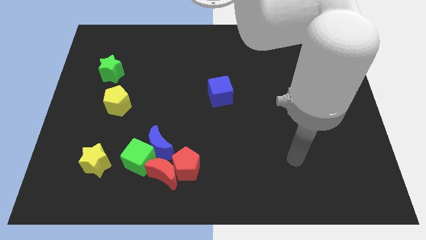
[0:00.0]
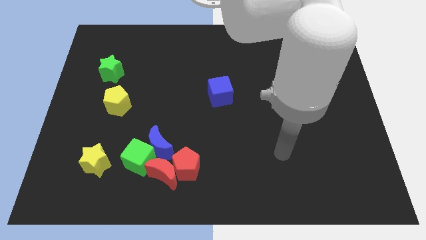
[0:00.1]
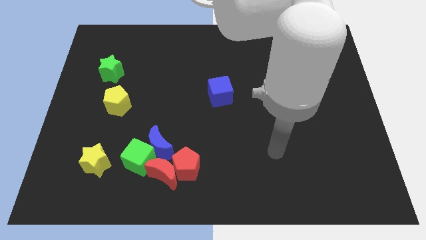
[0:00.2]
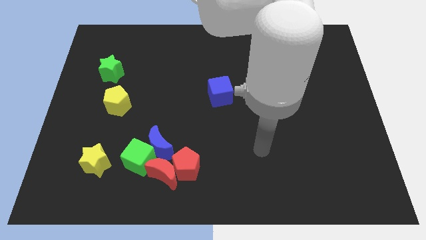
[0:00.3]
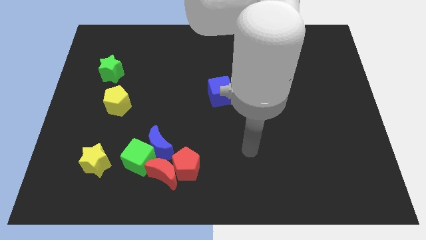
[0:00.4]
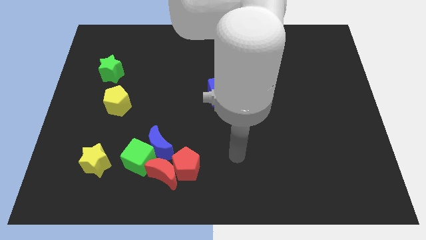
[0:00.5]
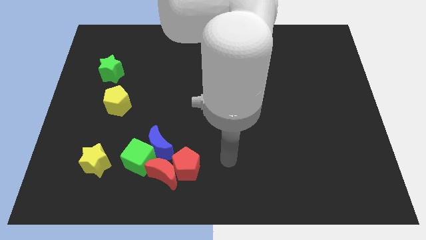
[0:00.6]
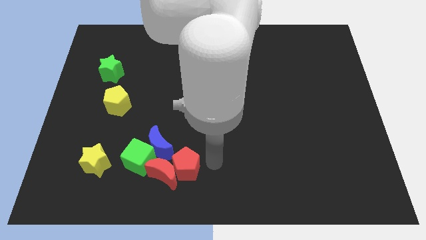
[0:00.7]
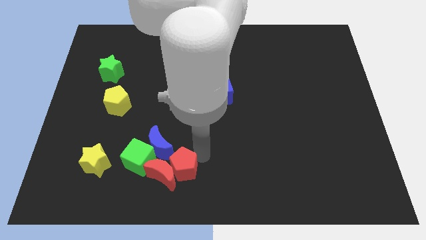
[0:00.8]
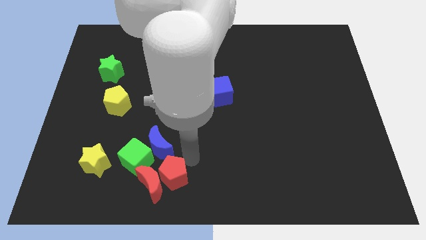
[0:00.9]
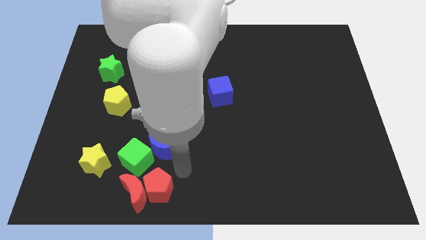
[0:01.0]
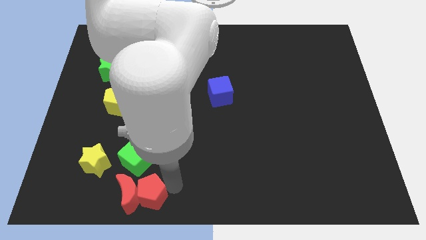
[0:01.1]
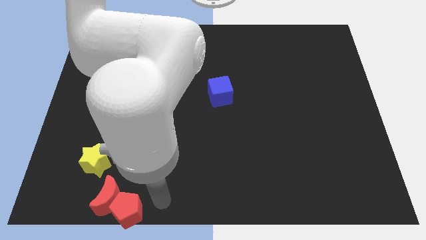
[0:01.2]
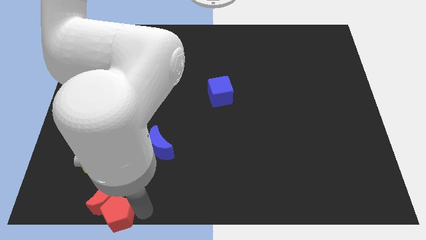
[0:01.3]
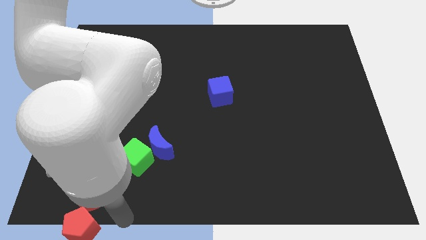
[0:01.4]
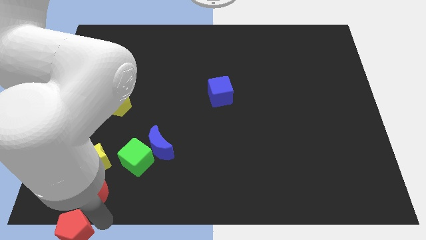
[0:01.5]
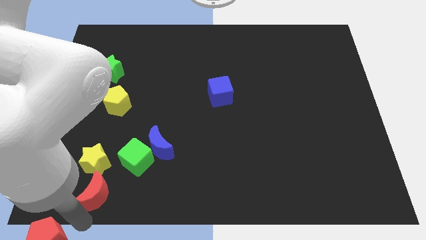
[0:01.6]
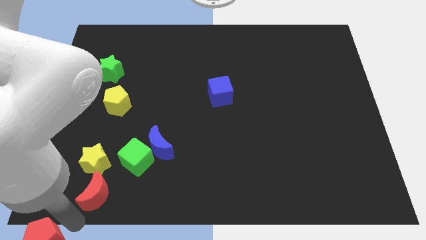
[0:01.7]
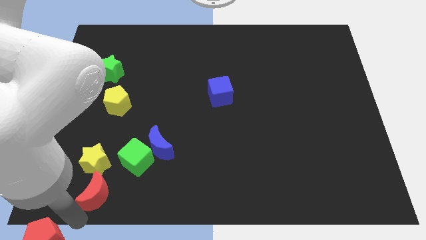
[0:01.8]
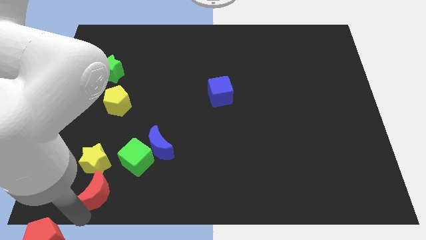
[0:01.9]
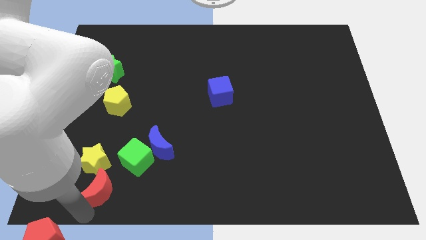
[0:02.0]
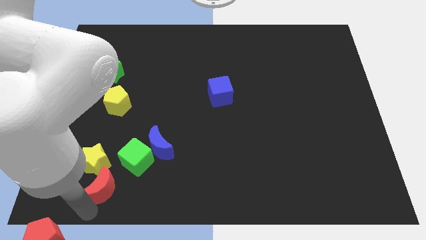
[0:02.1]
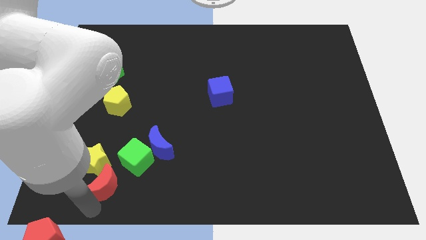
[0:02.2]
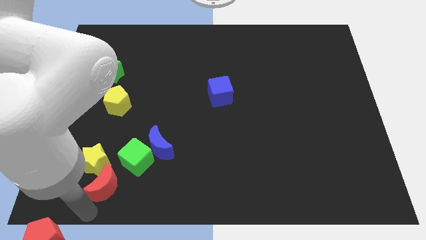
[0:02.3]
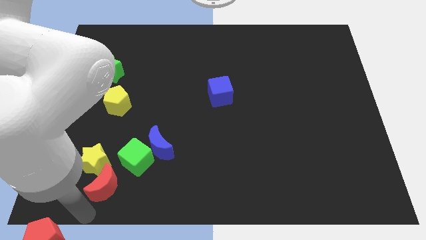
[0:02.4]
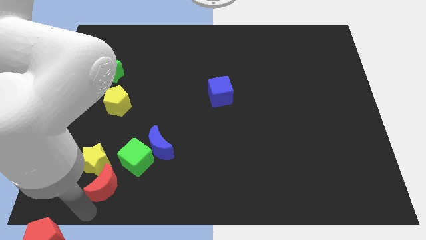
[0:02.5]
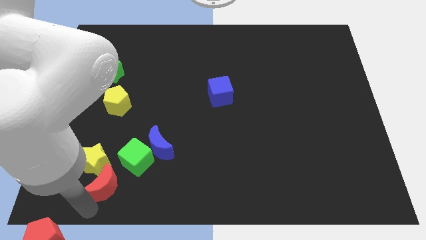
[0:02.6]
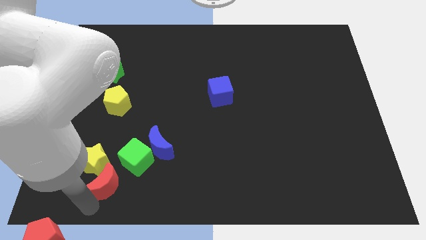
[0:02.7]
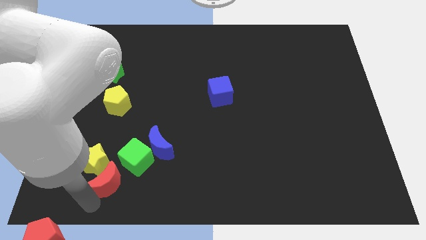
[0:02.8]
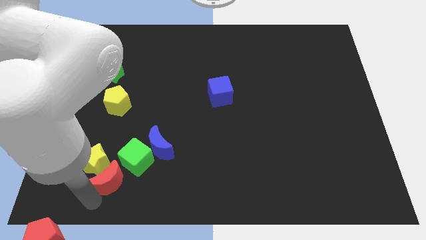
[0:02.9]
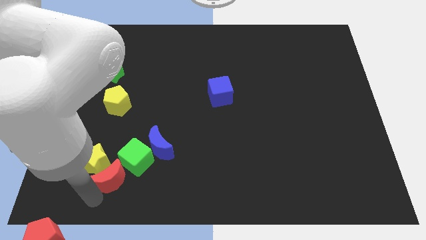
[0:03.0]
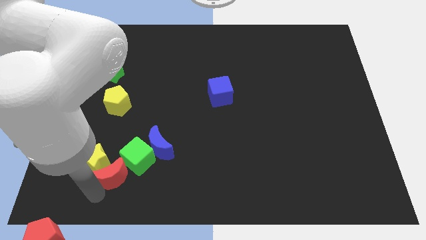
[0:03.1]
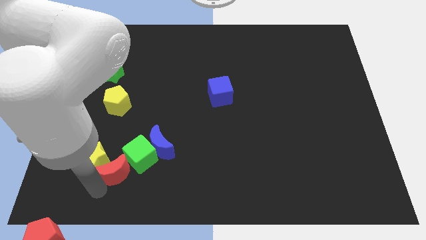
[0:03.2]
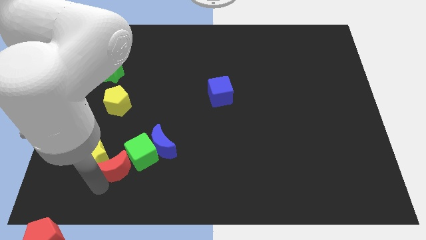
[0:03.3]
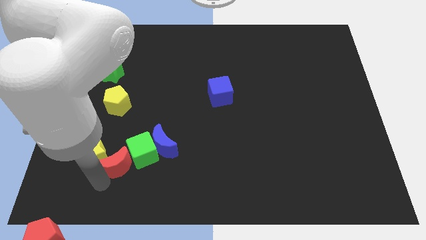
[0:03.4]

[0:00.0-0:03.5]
slightly push the red moon up and to the left

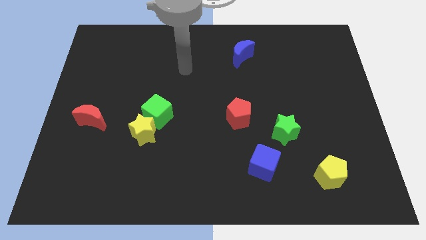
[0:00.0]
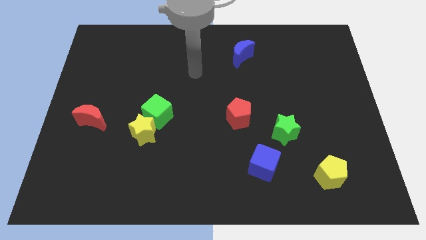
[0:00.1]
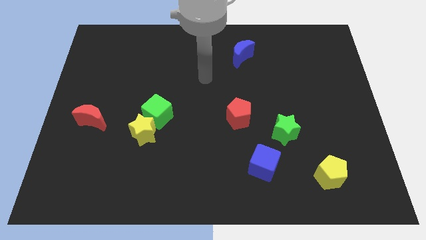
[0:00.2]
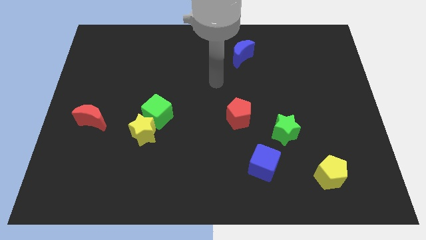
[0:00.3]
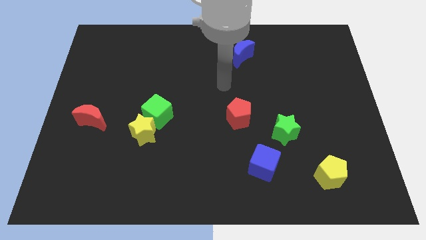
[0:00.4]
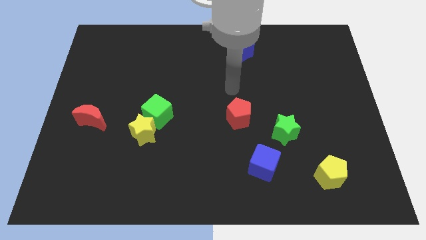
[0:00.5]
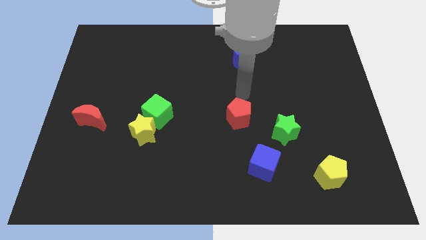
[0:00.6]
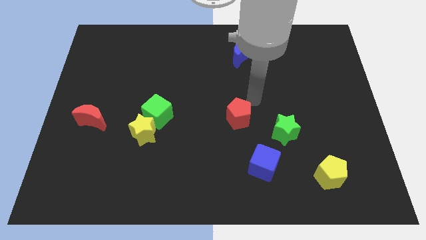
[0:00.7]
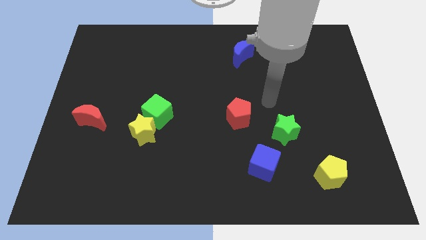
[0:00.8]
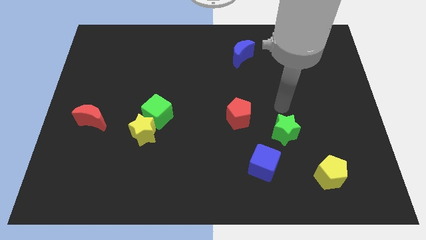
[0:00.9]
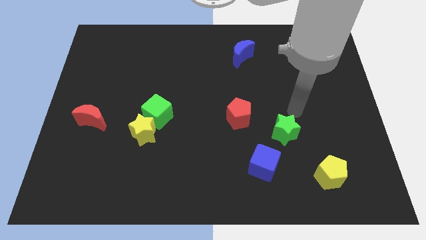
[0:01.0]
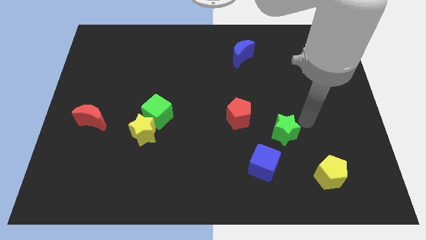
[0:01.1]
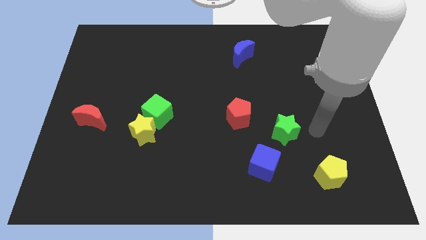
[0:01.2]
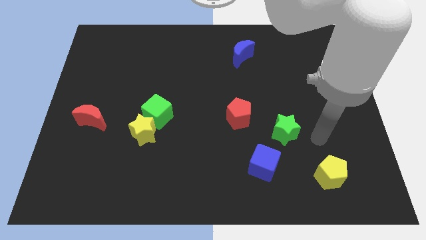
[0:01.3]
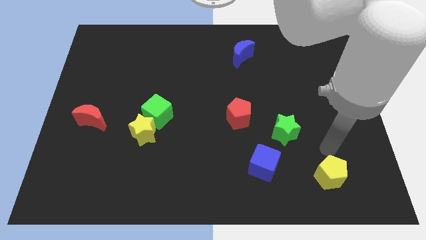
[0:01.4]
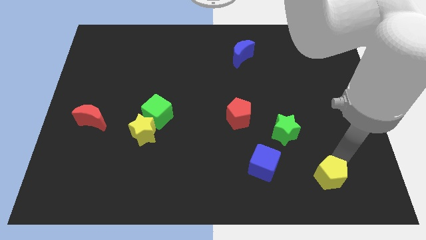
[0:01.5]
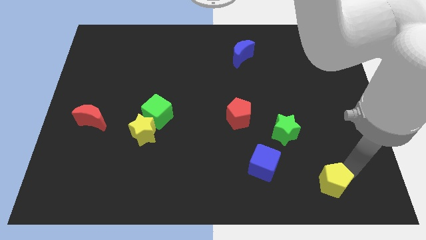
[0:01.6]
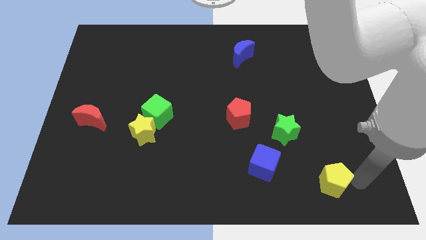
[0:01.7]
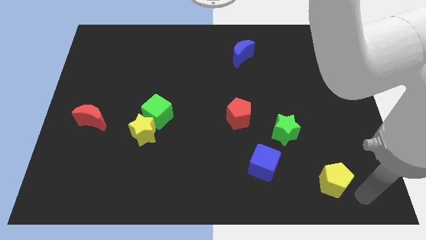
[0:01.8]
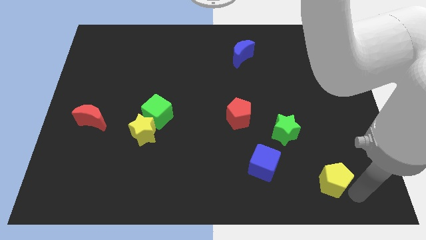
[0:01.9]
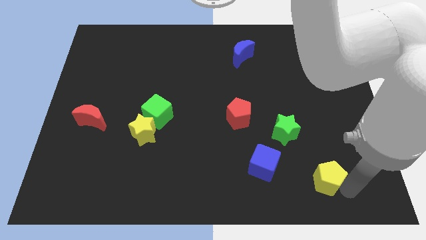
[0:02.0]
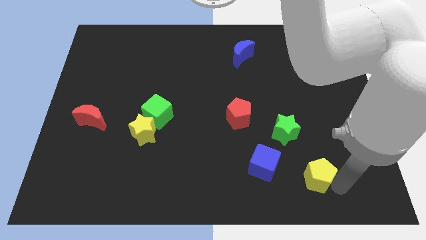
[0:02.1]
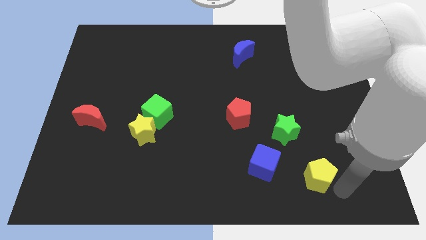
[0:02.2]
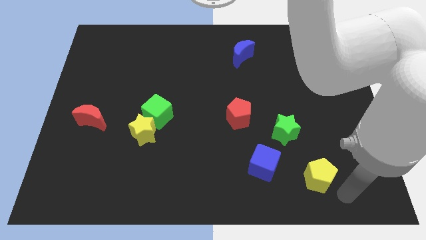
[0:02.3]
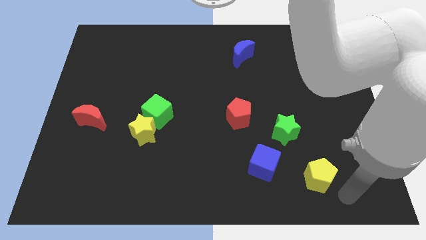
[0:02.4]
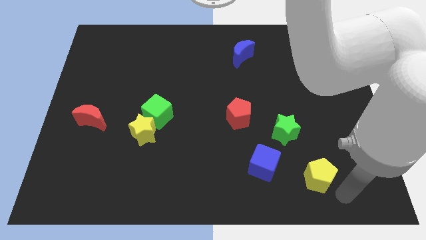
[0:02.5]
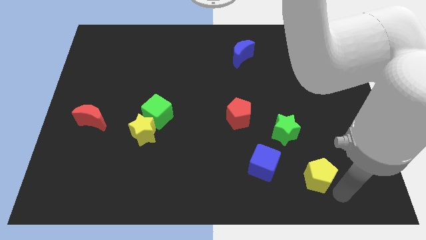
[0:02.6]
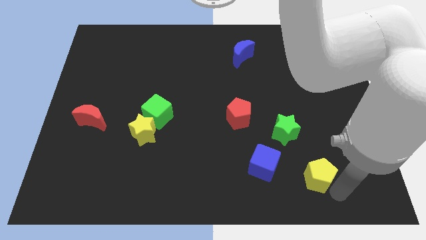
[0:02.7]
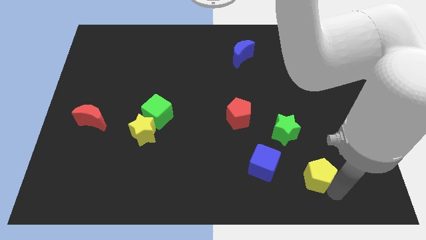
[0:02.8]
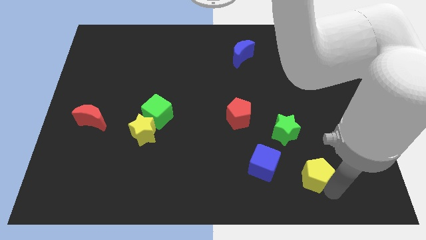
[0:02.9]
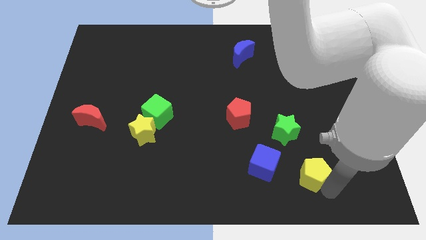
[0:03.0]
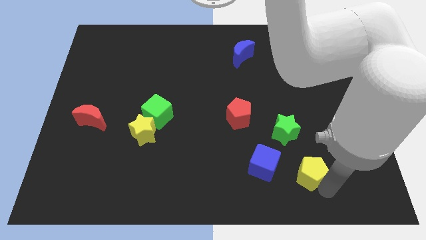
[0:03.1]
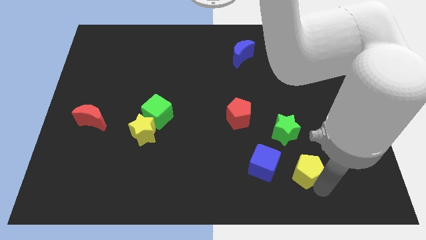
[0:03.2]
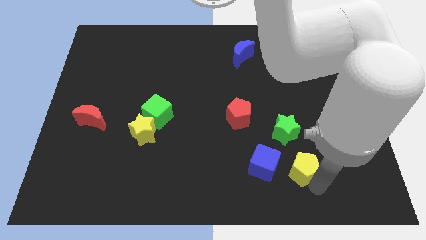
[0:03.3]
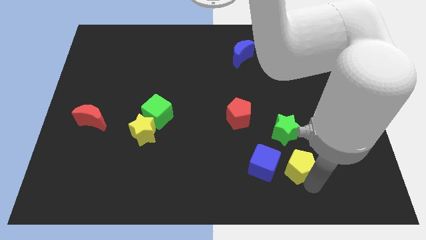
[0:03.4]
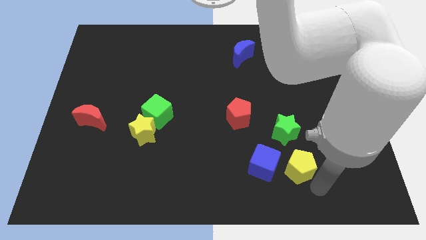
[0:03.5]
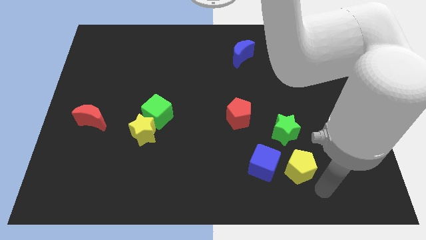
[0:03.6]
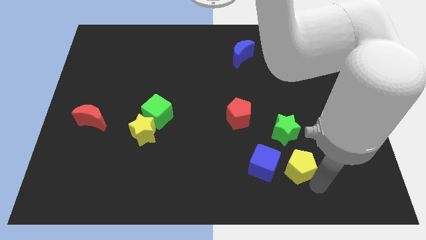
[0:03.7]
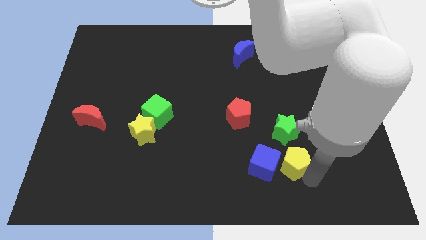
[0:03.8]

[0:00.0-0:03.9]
move the yellow pentagon a bit to the left

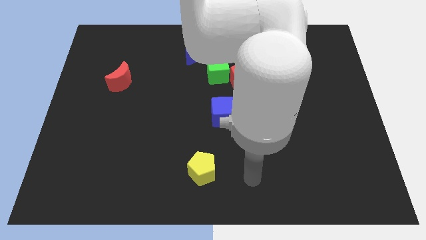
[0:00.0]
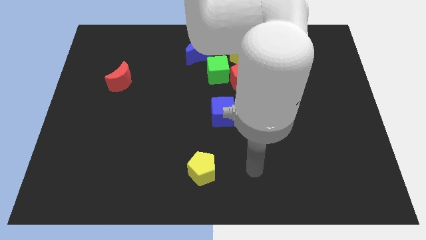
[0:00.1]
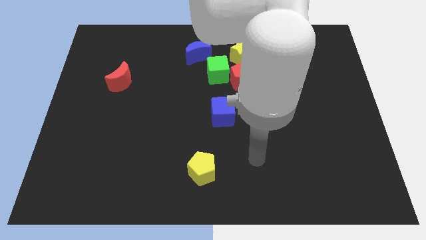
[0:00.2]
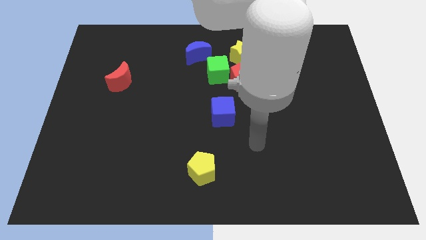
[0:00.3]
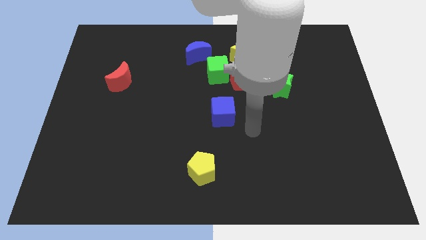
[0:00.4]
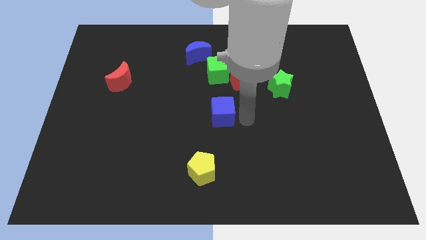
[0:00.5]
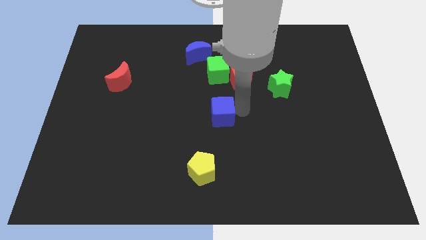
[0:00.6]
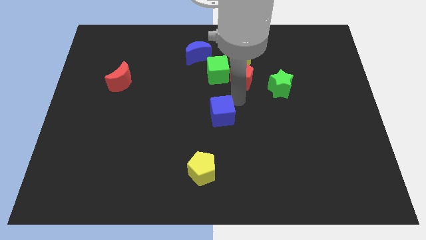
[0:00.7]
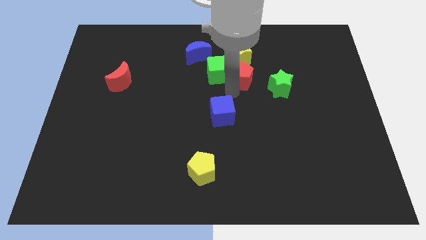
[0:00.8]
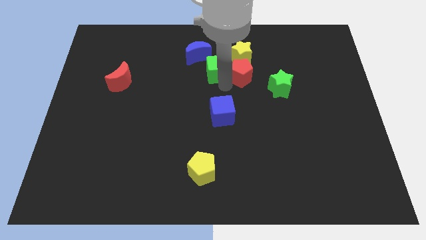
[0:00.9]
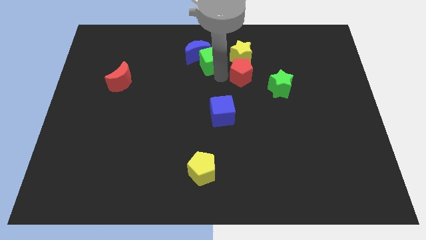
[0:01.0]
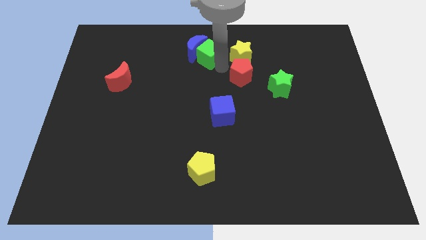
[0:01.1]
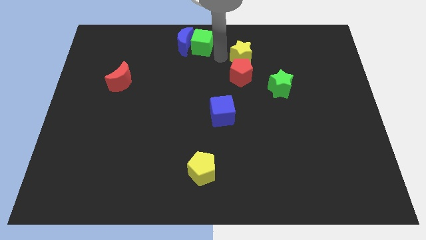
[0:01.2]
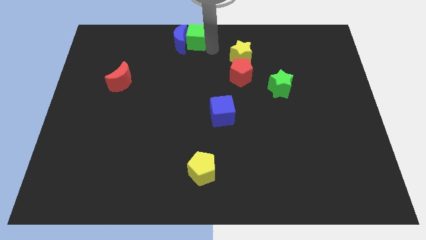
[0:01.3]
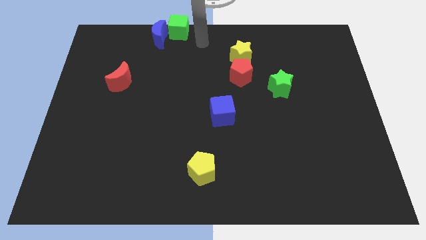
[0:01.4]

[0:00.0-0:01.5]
slide the blue moon a little bit to the left
